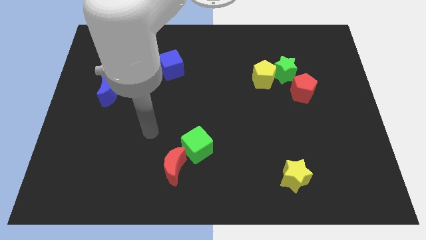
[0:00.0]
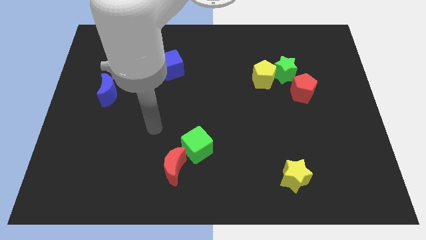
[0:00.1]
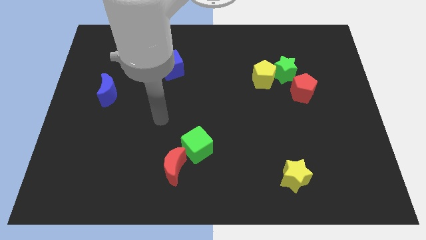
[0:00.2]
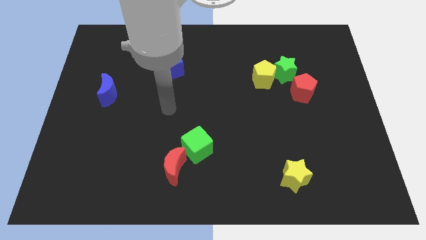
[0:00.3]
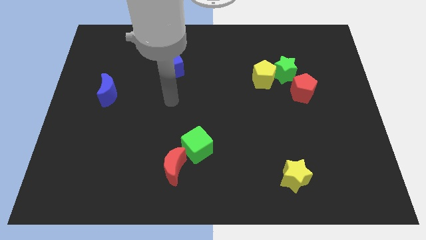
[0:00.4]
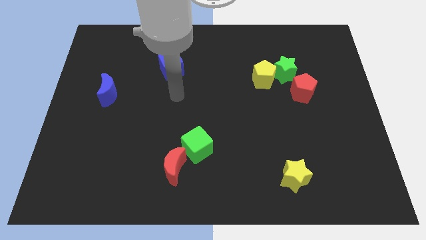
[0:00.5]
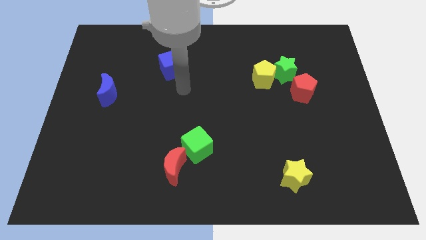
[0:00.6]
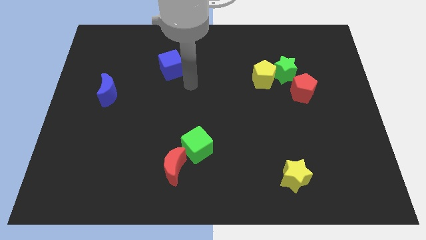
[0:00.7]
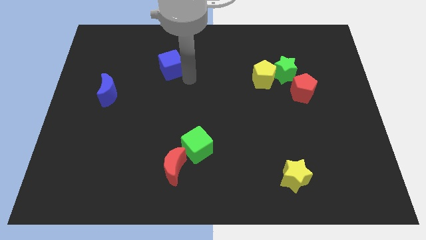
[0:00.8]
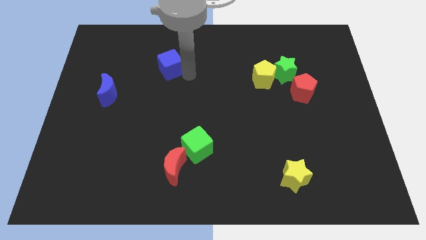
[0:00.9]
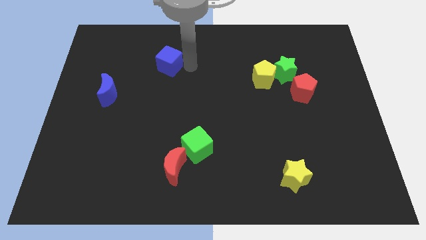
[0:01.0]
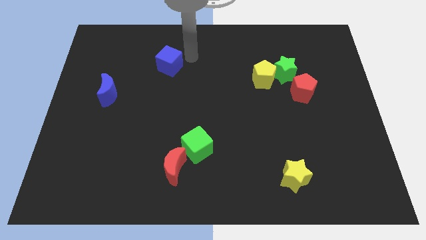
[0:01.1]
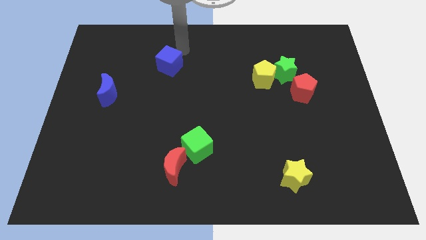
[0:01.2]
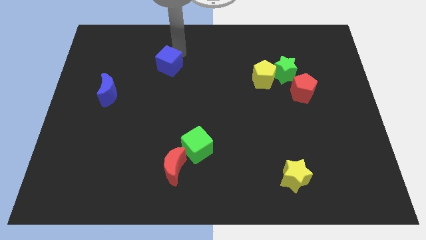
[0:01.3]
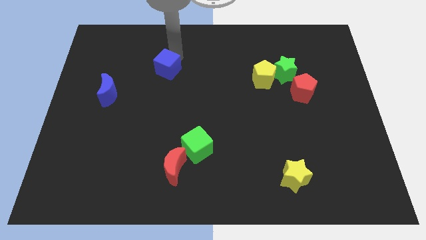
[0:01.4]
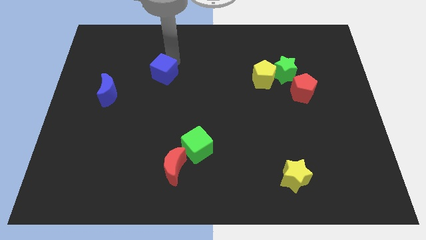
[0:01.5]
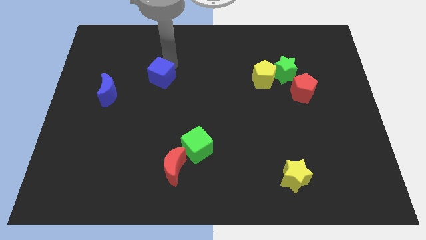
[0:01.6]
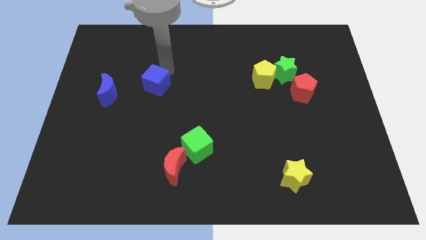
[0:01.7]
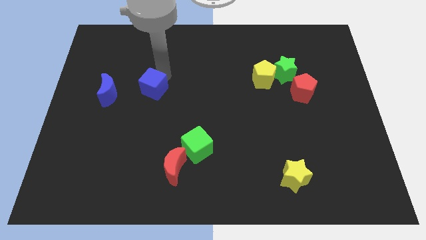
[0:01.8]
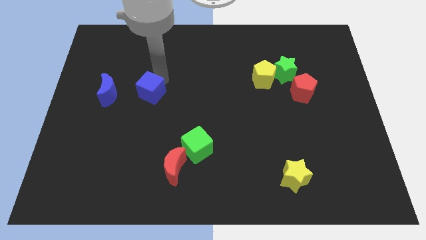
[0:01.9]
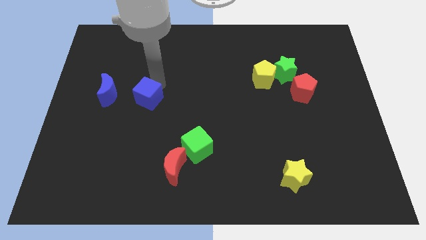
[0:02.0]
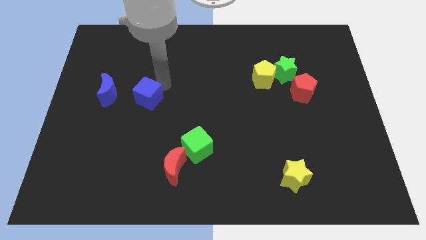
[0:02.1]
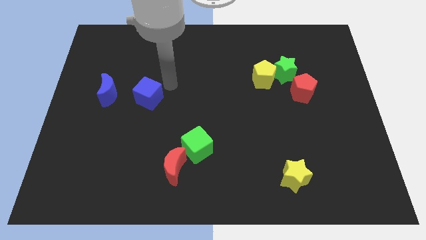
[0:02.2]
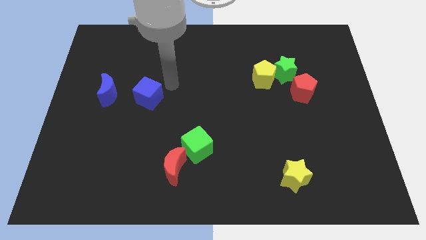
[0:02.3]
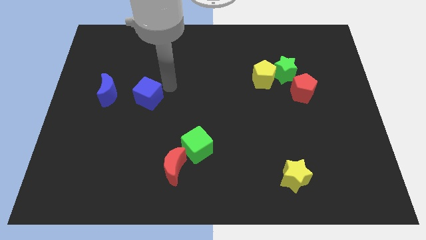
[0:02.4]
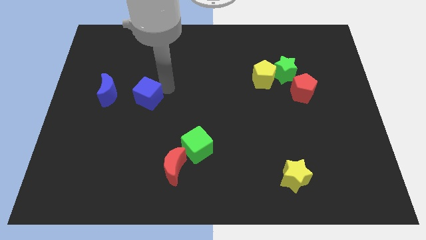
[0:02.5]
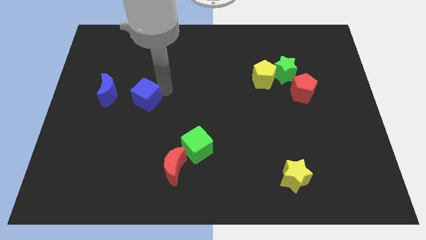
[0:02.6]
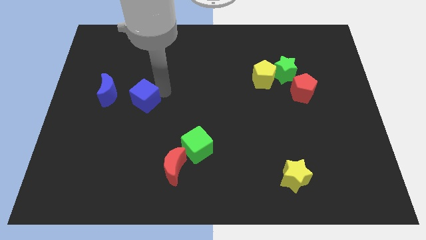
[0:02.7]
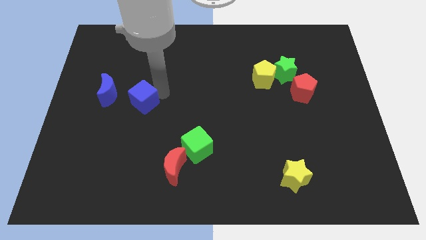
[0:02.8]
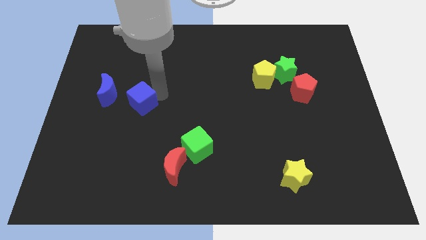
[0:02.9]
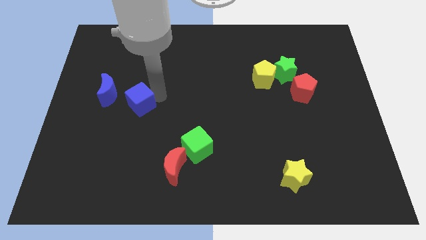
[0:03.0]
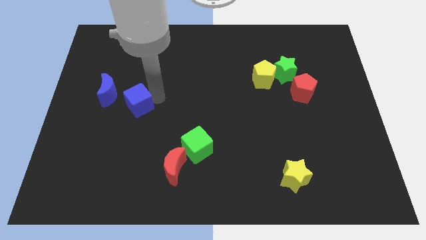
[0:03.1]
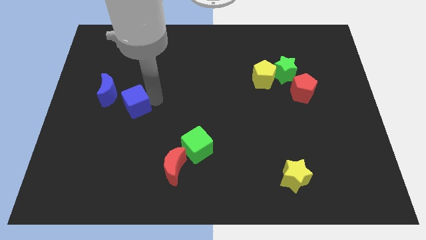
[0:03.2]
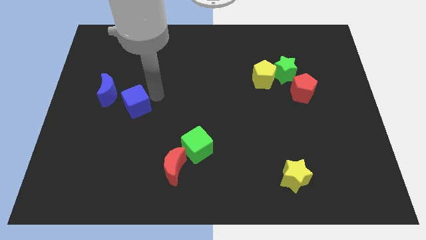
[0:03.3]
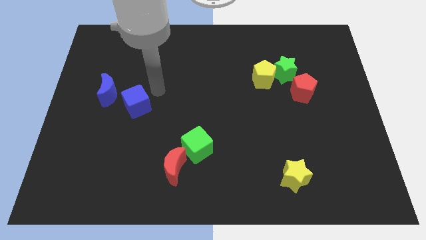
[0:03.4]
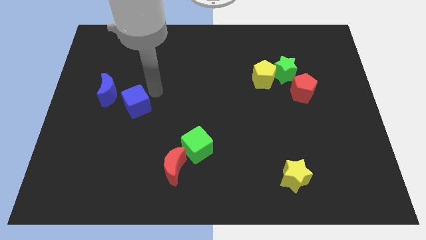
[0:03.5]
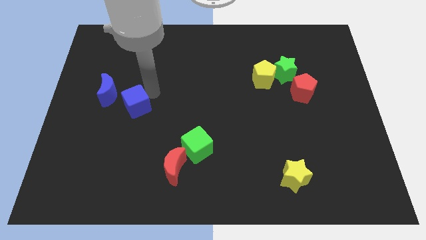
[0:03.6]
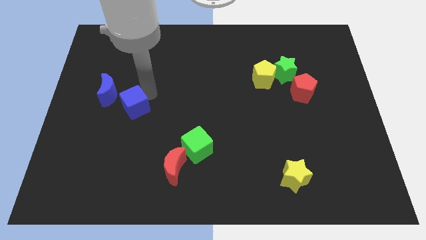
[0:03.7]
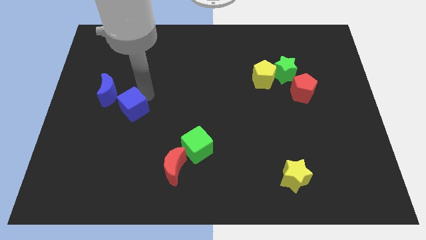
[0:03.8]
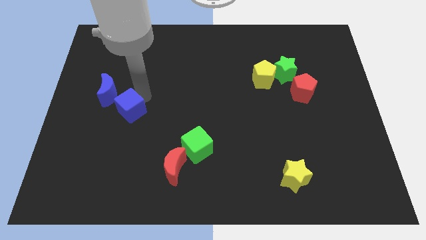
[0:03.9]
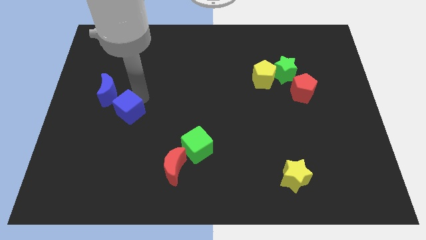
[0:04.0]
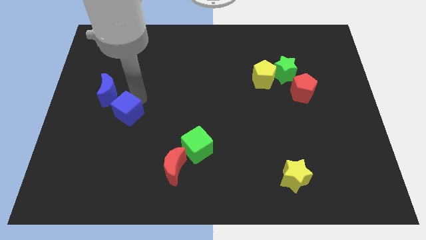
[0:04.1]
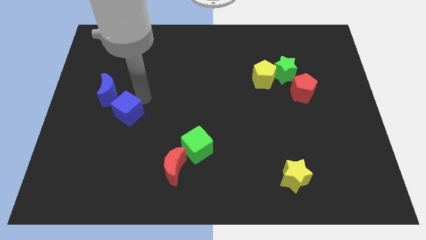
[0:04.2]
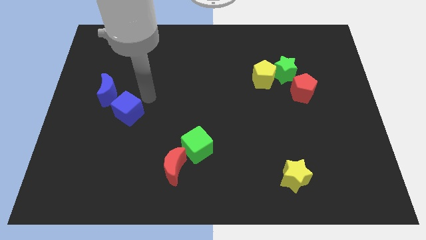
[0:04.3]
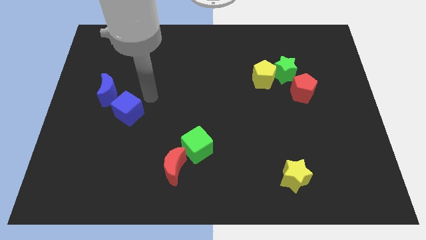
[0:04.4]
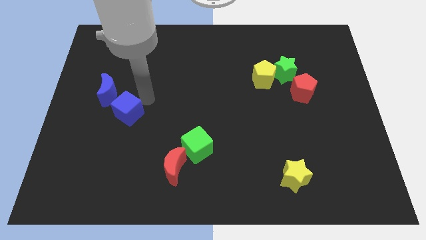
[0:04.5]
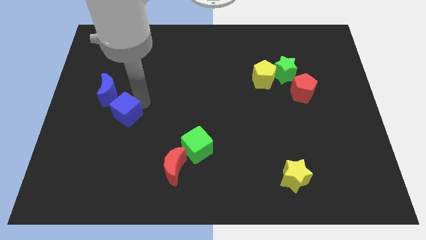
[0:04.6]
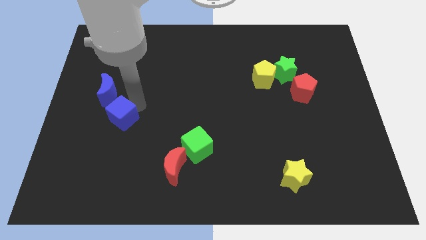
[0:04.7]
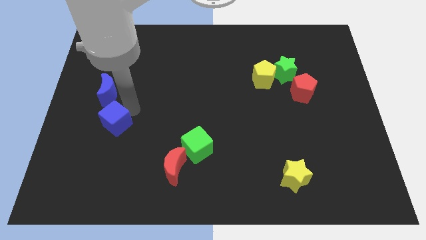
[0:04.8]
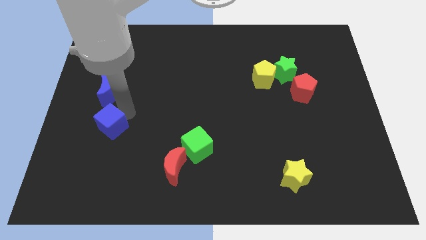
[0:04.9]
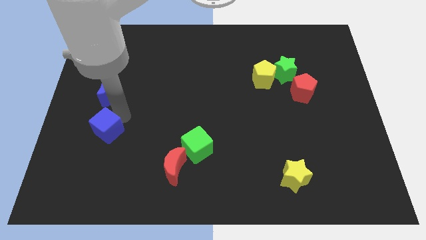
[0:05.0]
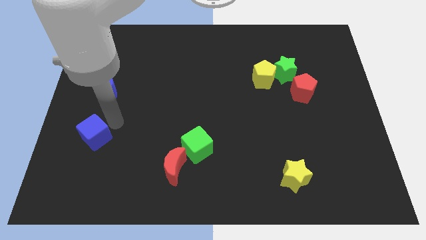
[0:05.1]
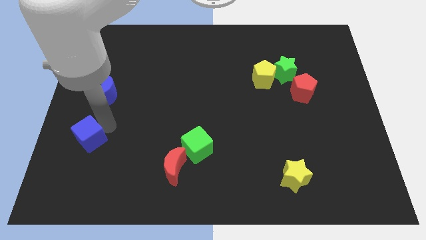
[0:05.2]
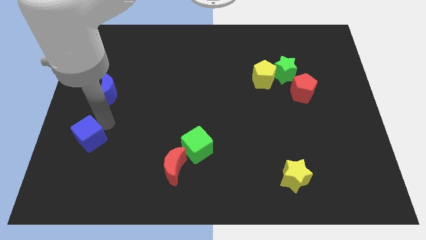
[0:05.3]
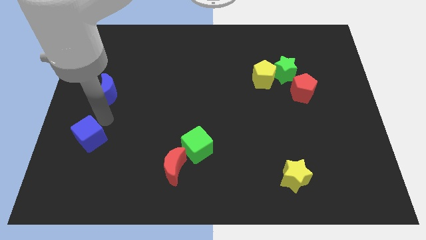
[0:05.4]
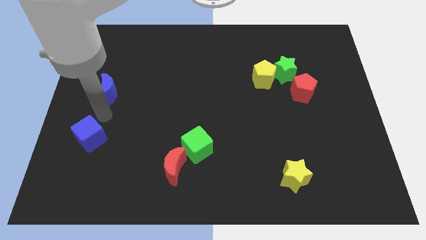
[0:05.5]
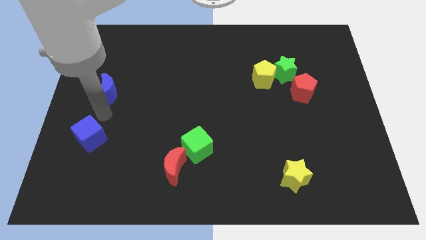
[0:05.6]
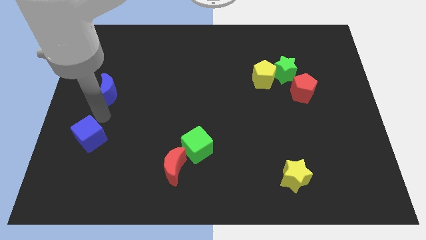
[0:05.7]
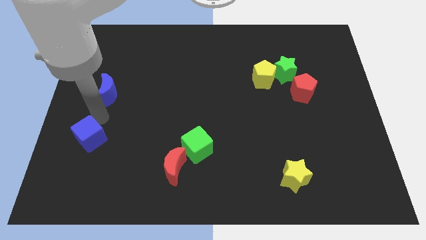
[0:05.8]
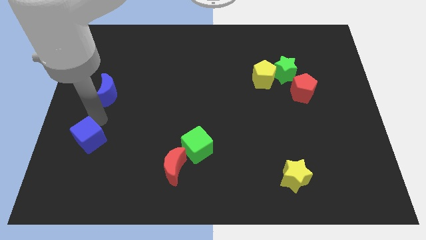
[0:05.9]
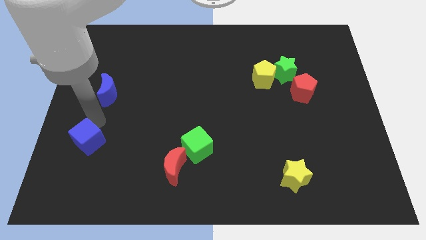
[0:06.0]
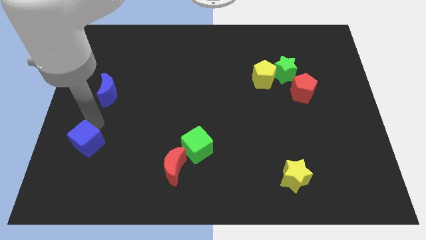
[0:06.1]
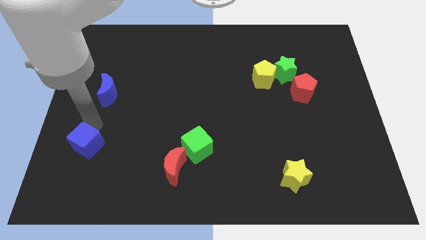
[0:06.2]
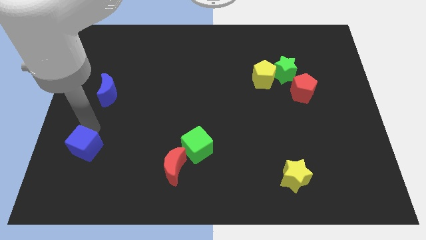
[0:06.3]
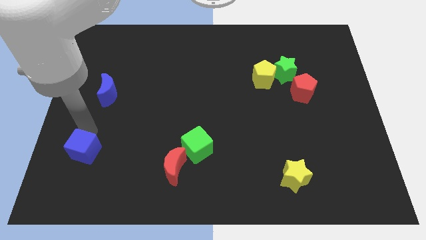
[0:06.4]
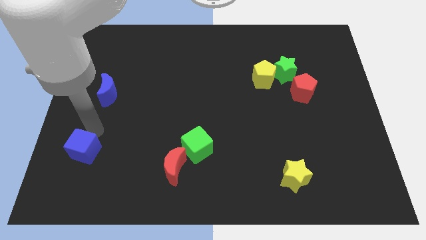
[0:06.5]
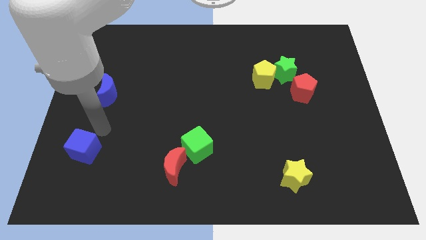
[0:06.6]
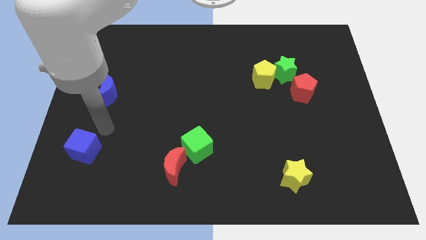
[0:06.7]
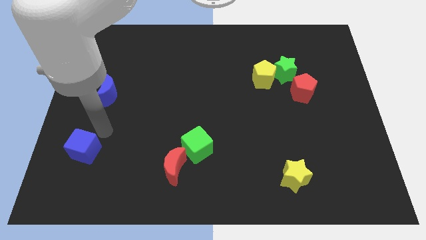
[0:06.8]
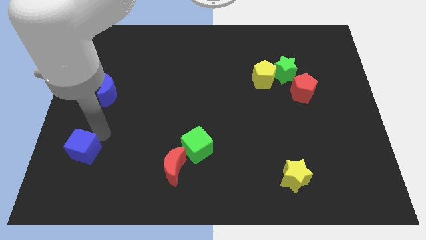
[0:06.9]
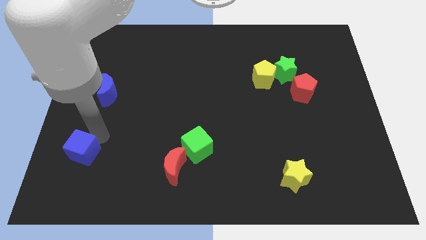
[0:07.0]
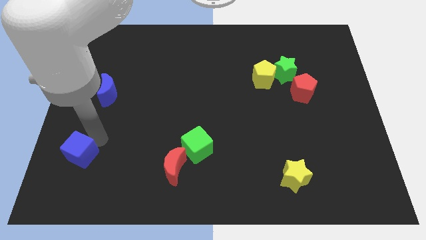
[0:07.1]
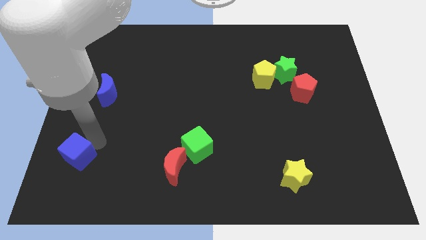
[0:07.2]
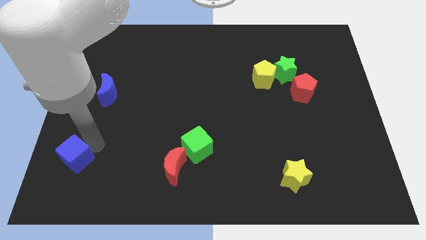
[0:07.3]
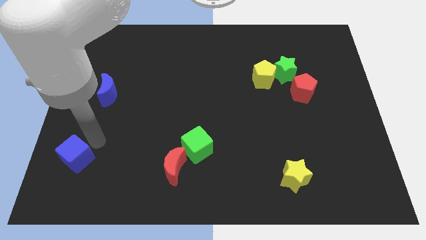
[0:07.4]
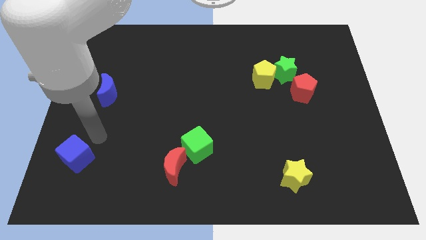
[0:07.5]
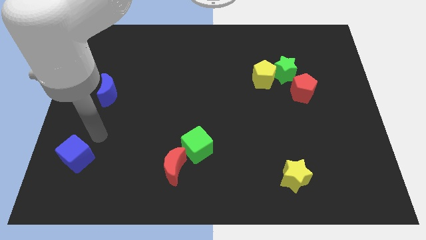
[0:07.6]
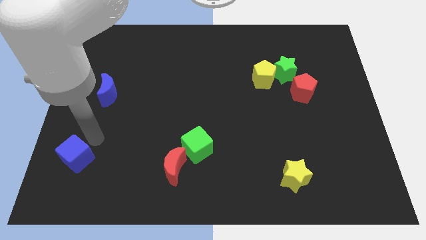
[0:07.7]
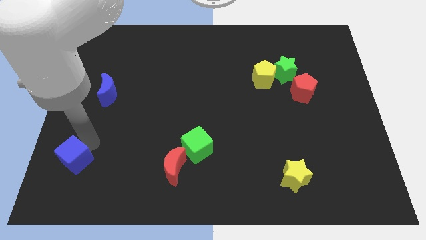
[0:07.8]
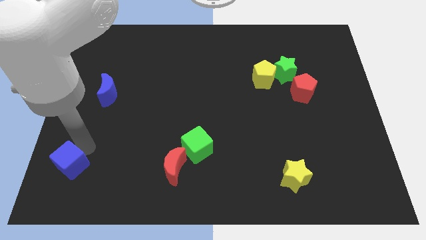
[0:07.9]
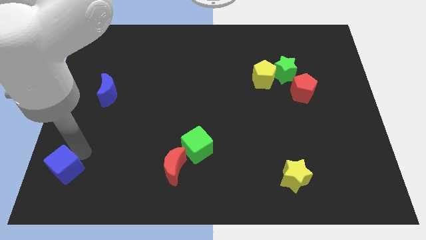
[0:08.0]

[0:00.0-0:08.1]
slide the blue cube to the lower left corner
